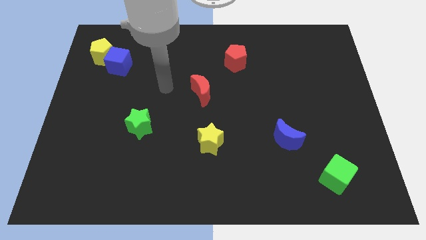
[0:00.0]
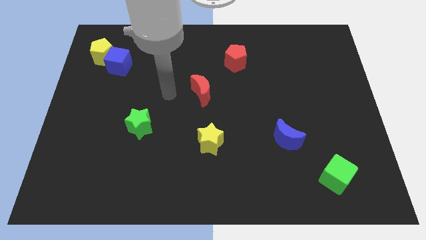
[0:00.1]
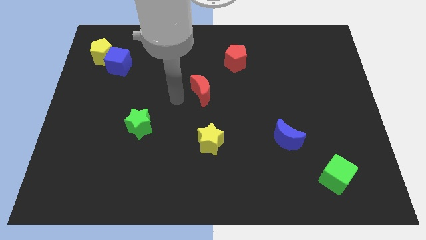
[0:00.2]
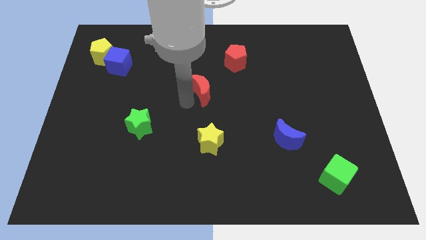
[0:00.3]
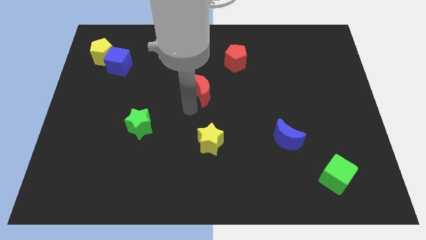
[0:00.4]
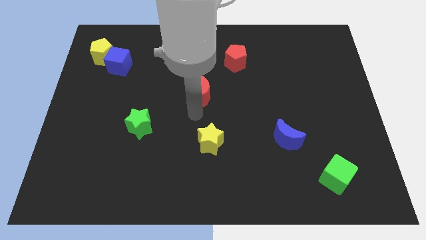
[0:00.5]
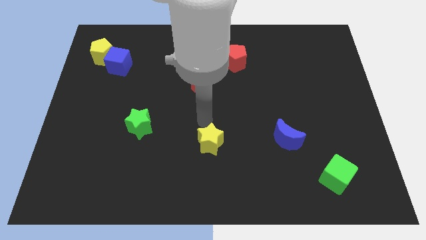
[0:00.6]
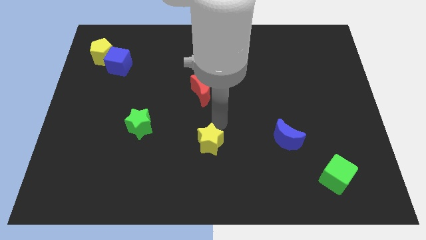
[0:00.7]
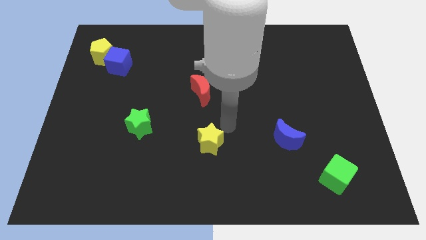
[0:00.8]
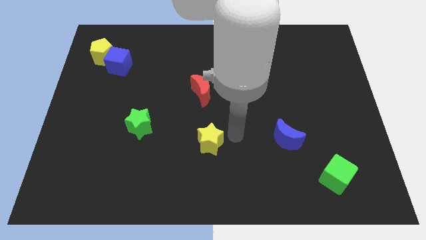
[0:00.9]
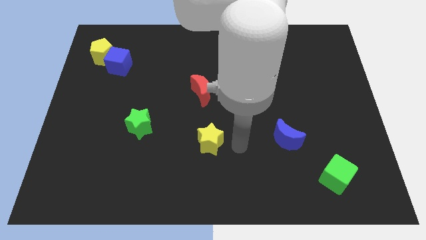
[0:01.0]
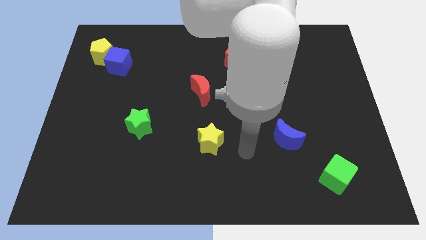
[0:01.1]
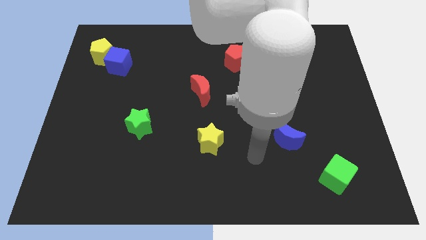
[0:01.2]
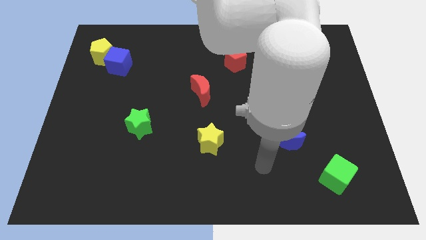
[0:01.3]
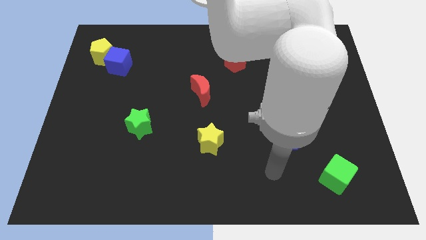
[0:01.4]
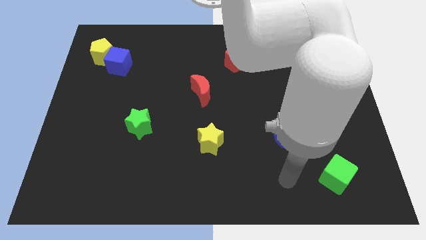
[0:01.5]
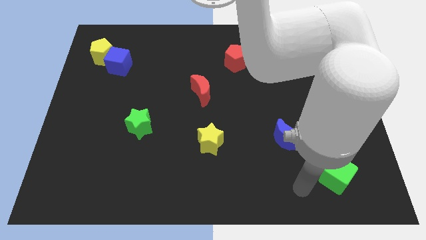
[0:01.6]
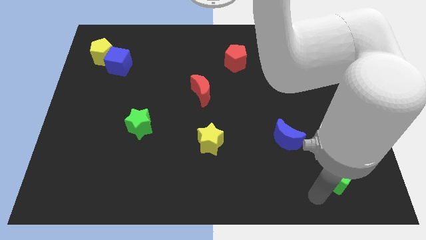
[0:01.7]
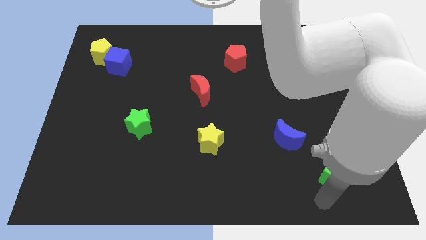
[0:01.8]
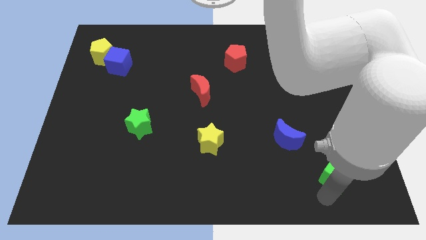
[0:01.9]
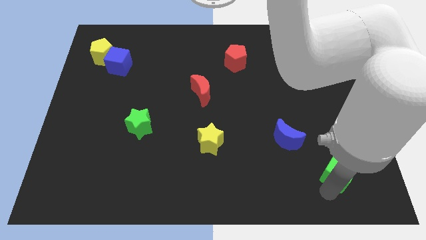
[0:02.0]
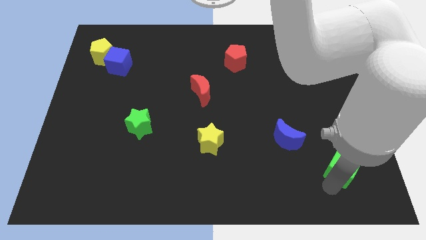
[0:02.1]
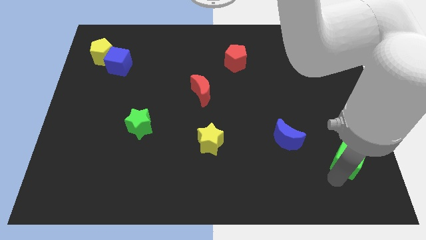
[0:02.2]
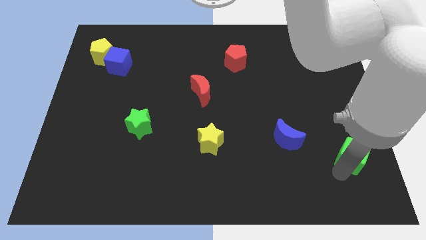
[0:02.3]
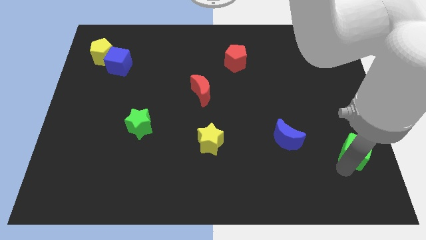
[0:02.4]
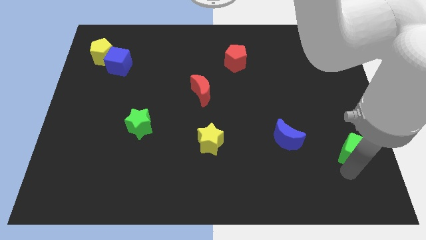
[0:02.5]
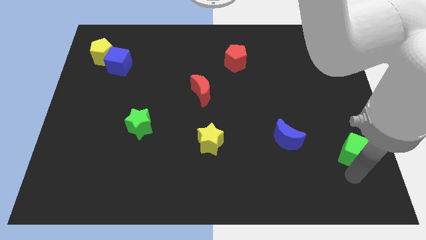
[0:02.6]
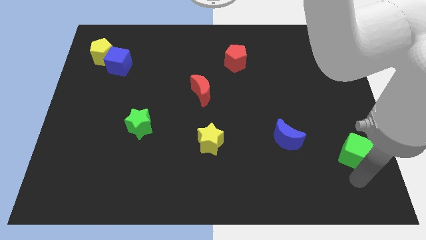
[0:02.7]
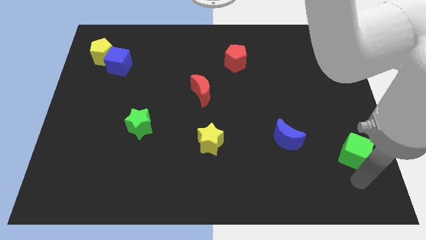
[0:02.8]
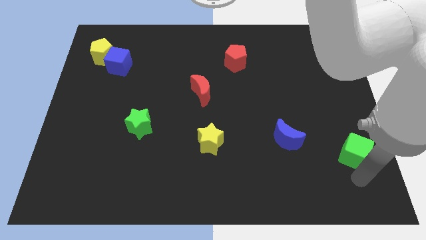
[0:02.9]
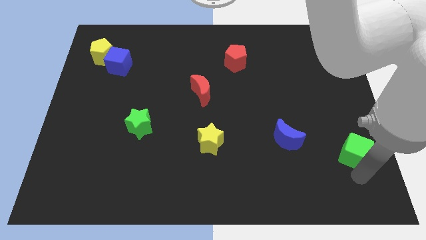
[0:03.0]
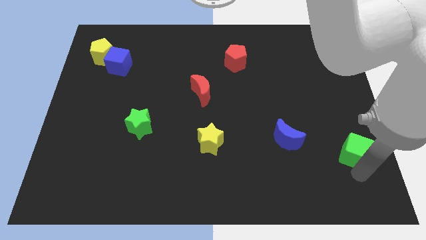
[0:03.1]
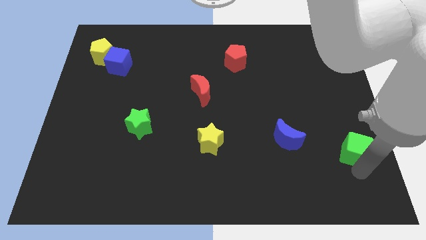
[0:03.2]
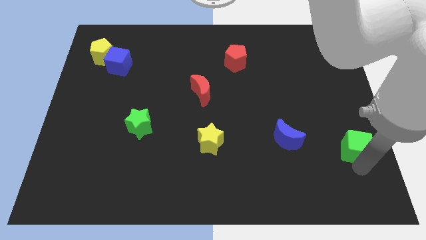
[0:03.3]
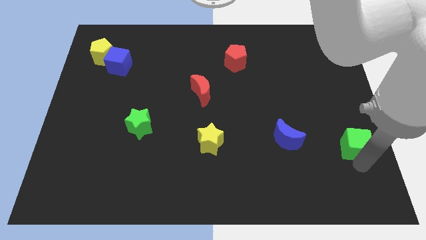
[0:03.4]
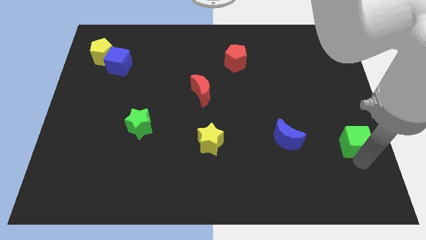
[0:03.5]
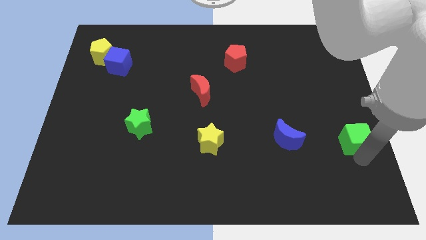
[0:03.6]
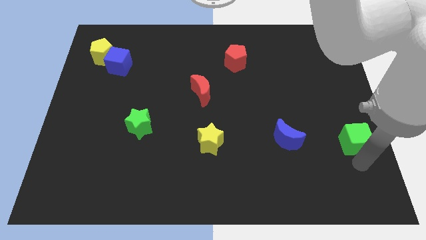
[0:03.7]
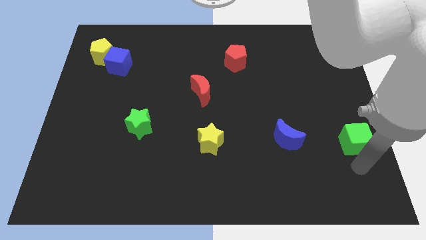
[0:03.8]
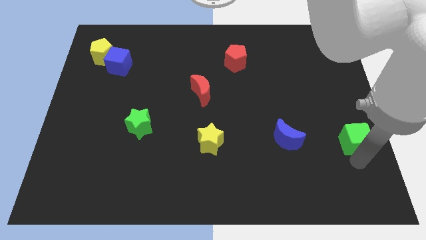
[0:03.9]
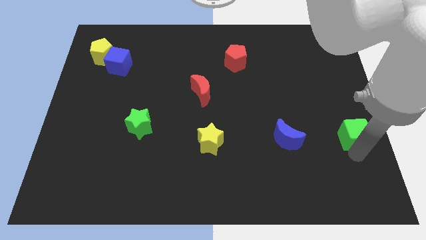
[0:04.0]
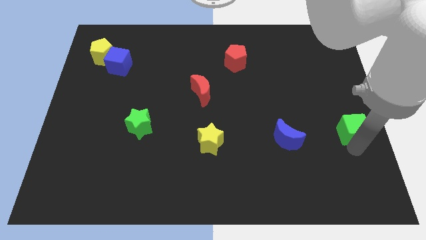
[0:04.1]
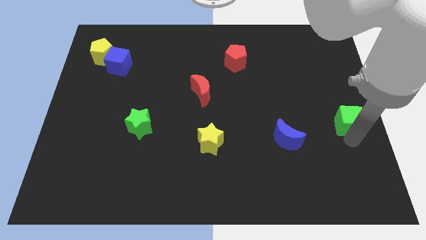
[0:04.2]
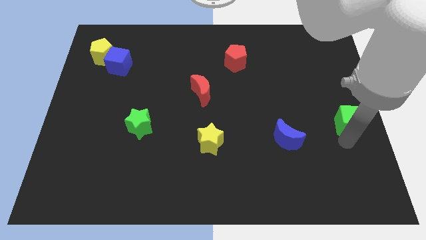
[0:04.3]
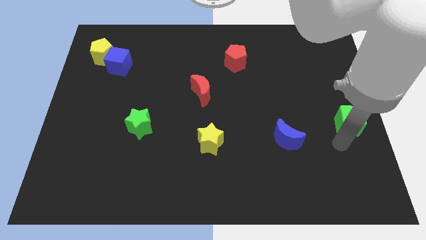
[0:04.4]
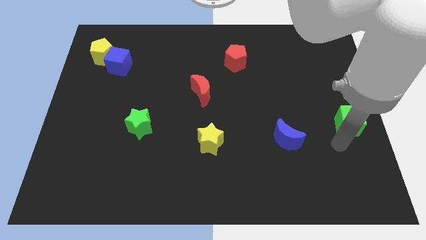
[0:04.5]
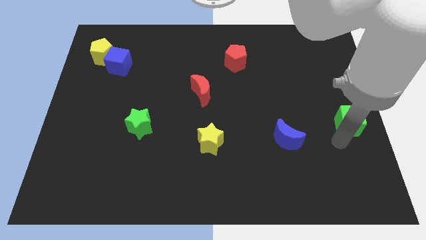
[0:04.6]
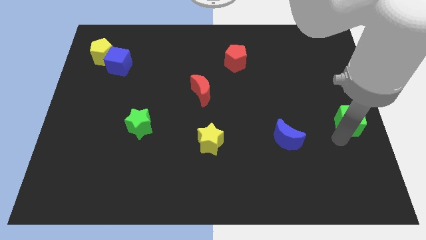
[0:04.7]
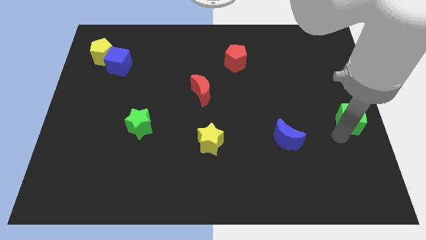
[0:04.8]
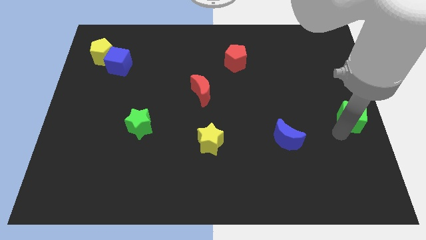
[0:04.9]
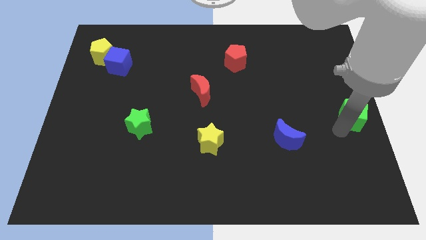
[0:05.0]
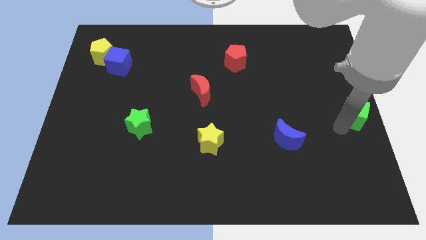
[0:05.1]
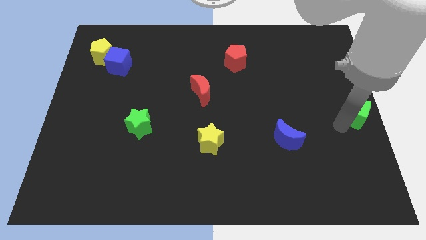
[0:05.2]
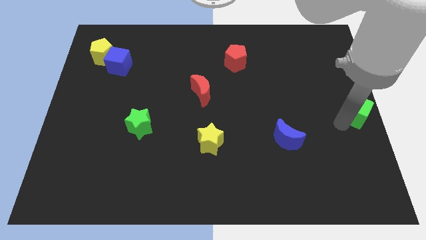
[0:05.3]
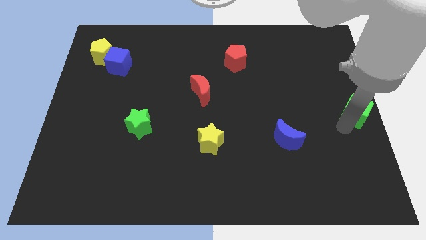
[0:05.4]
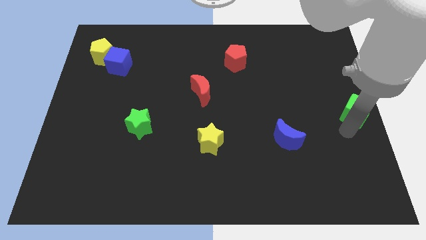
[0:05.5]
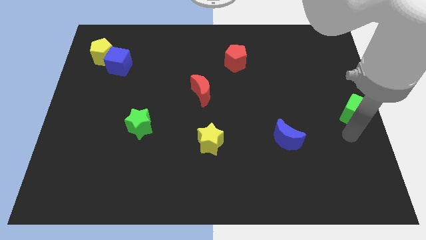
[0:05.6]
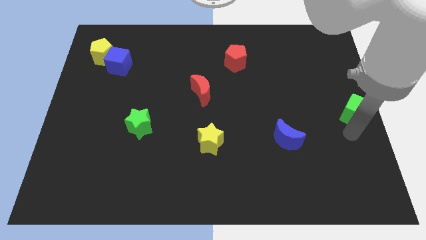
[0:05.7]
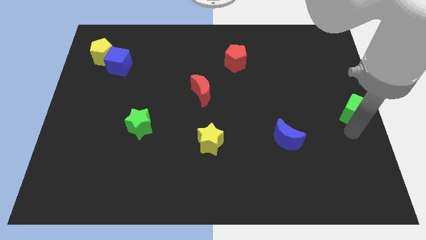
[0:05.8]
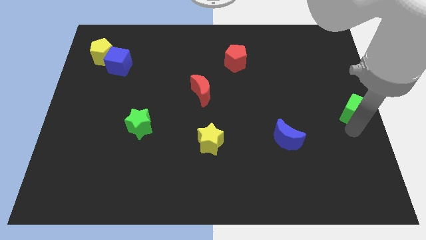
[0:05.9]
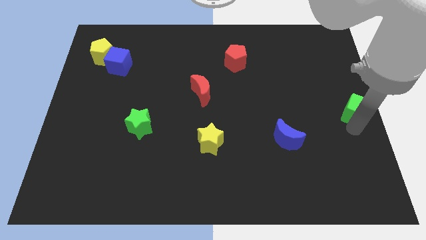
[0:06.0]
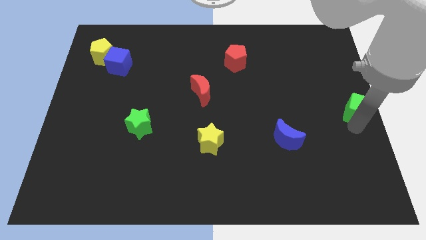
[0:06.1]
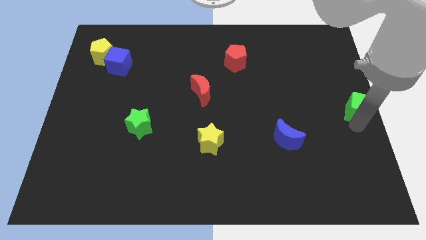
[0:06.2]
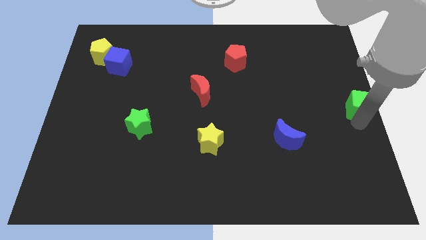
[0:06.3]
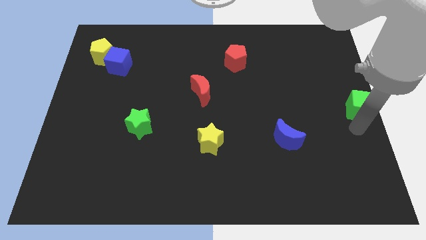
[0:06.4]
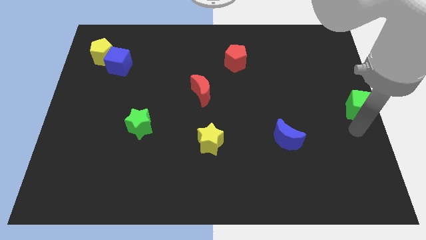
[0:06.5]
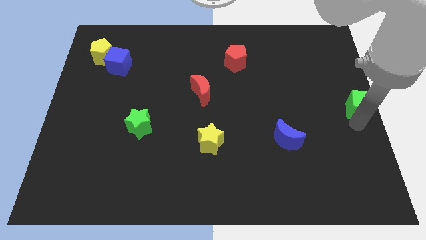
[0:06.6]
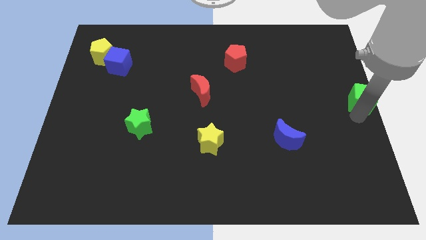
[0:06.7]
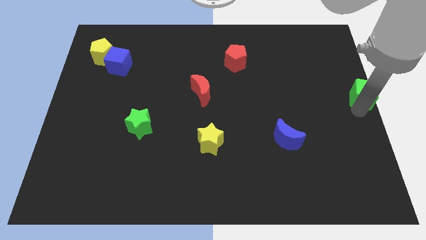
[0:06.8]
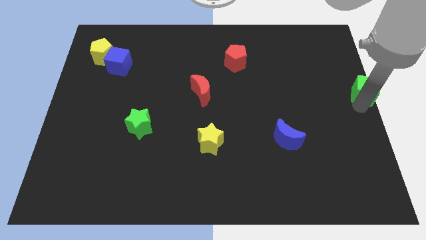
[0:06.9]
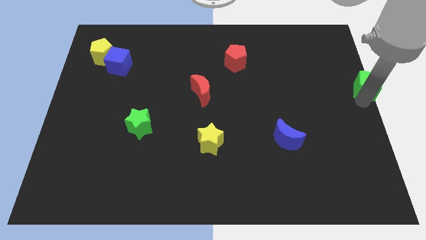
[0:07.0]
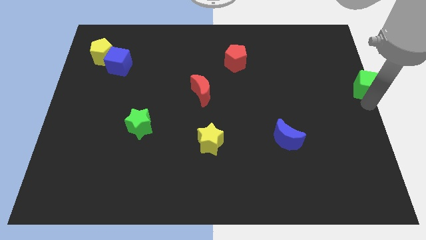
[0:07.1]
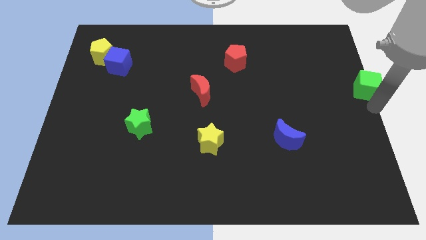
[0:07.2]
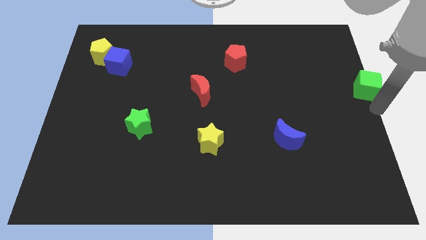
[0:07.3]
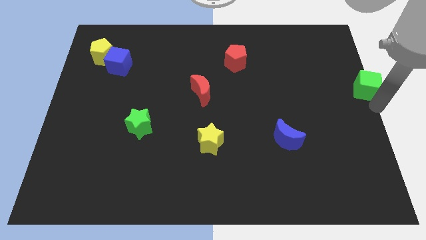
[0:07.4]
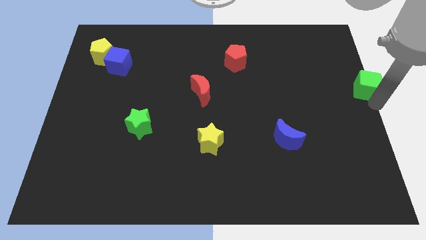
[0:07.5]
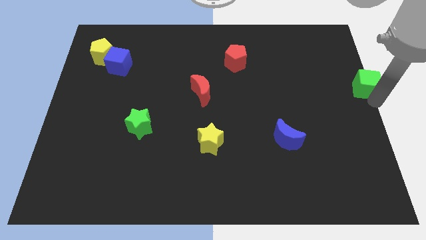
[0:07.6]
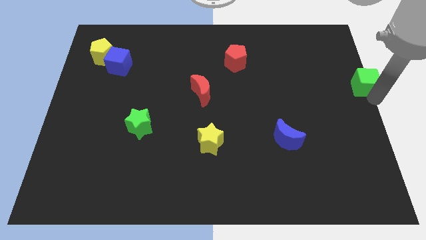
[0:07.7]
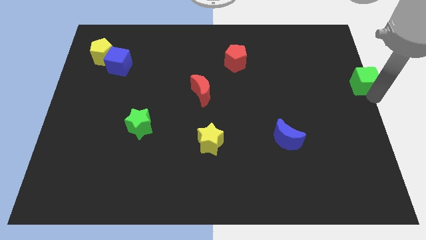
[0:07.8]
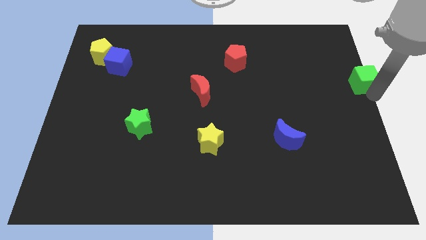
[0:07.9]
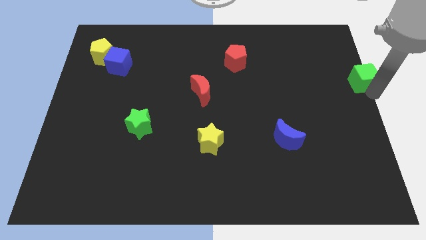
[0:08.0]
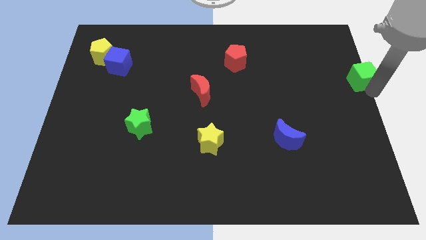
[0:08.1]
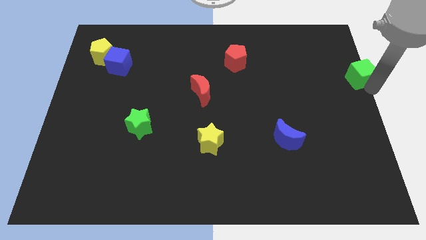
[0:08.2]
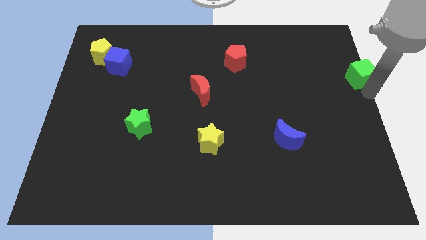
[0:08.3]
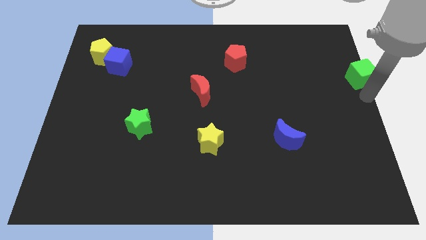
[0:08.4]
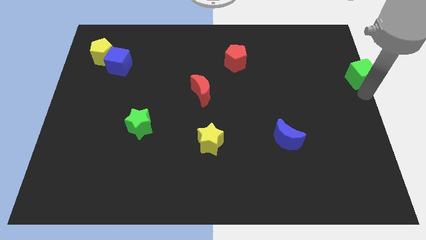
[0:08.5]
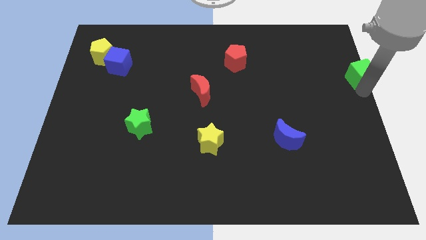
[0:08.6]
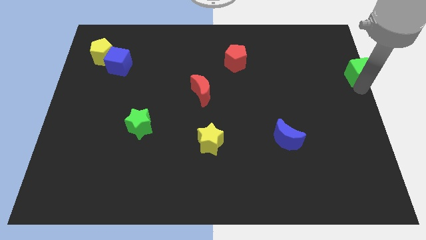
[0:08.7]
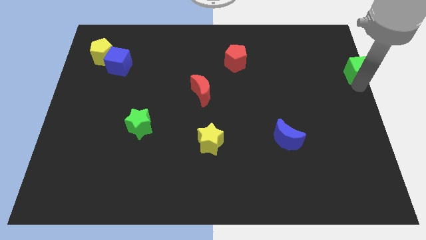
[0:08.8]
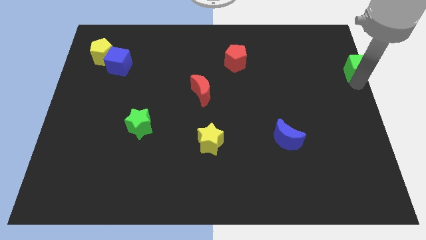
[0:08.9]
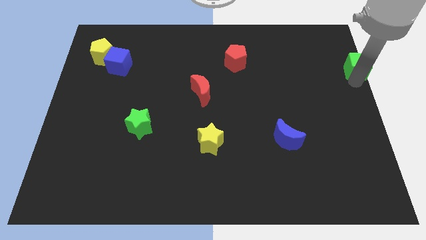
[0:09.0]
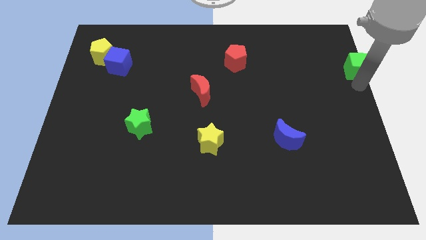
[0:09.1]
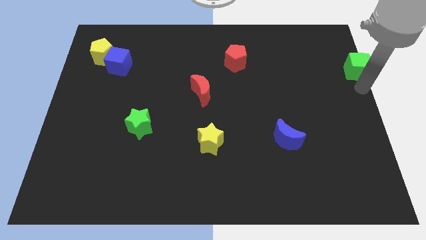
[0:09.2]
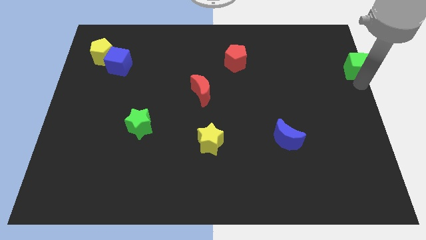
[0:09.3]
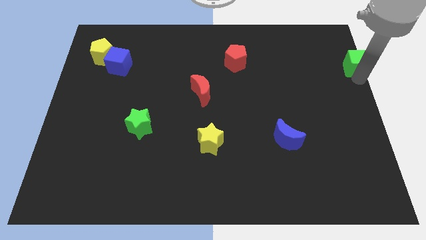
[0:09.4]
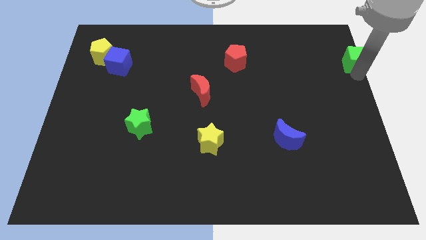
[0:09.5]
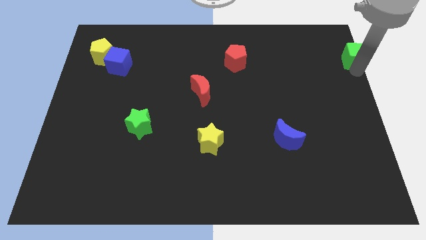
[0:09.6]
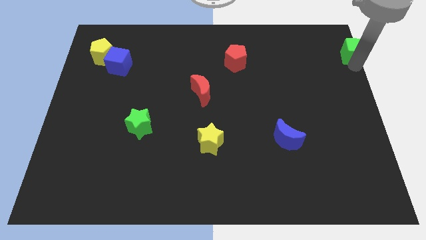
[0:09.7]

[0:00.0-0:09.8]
push the green cube to the top right of the board
